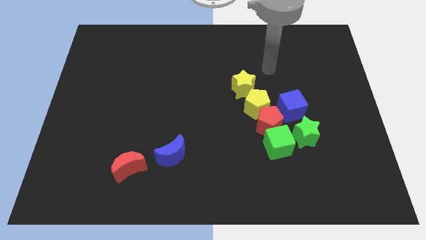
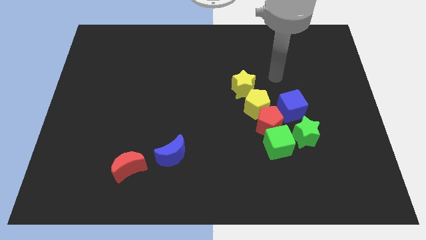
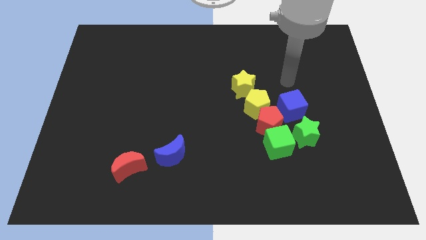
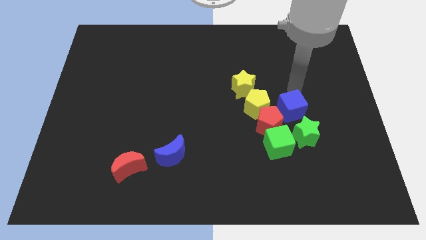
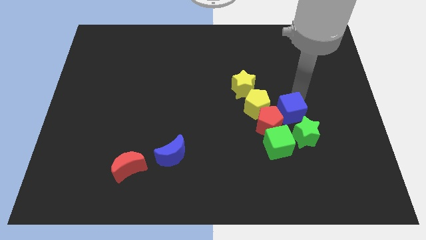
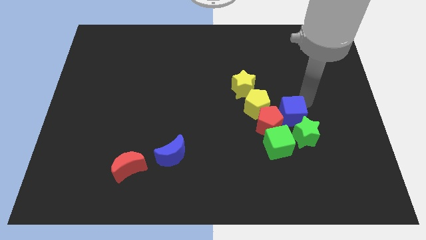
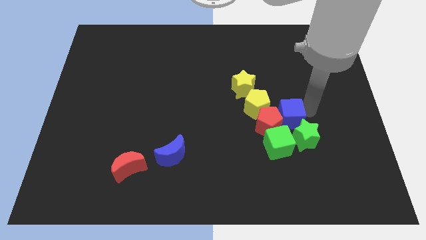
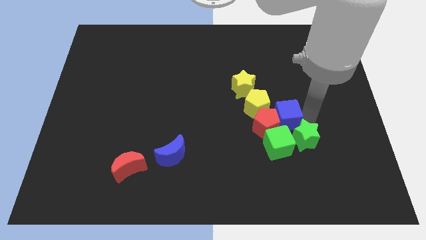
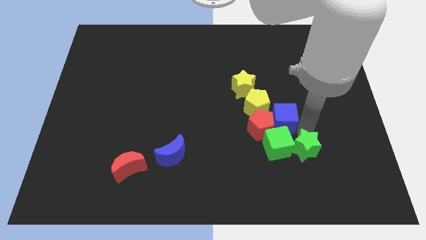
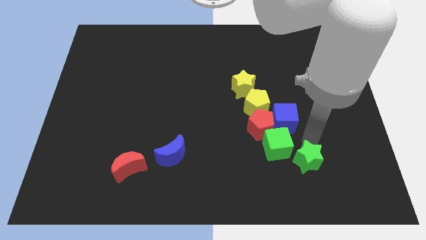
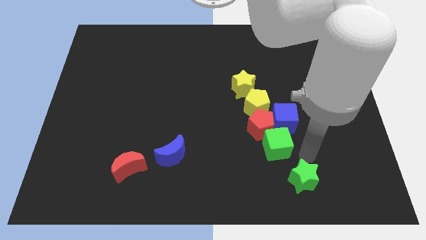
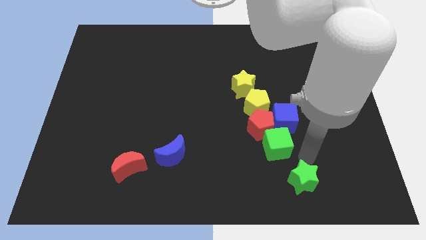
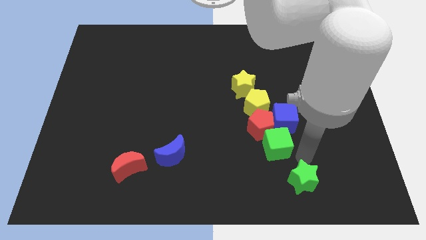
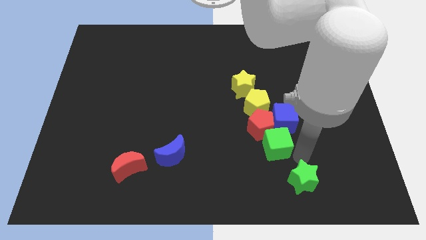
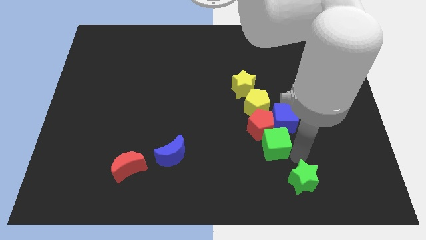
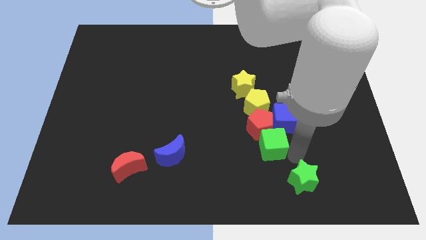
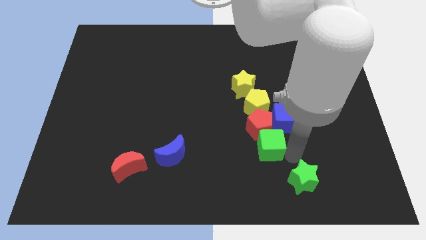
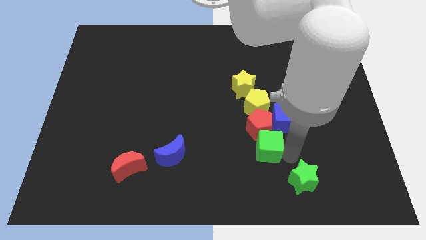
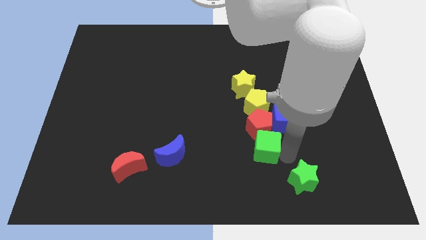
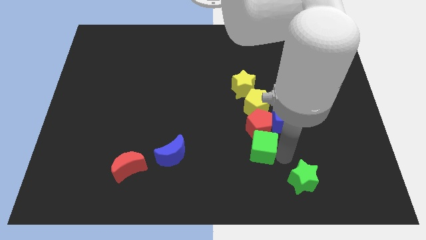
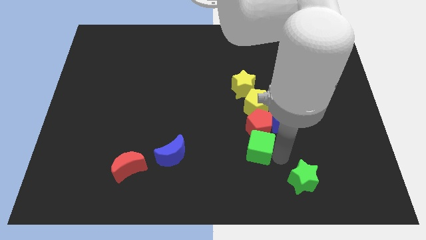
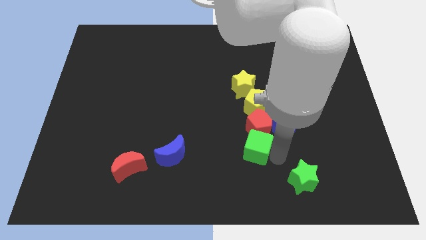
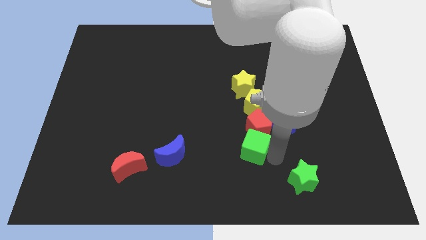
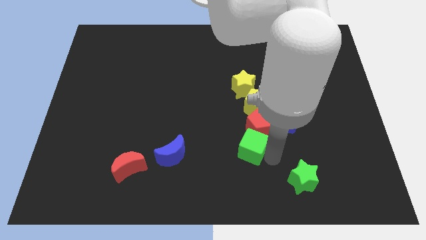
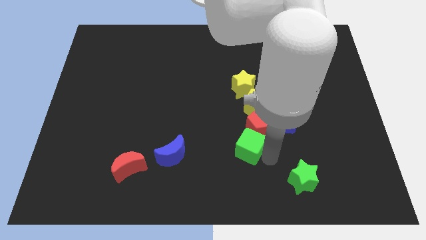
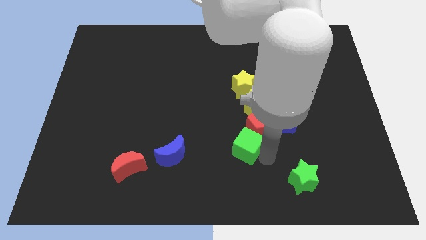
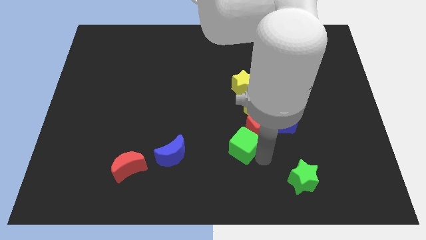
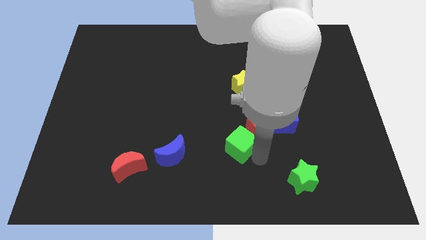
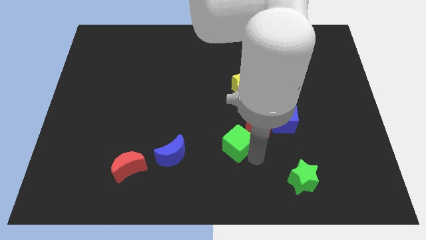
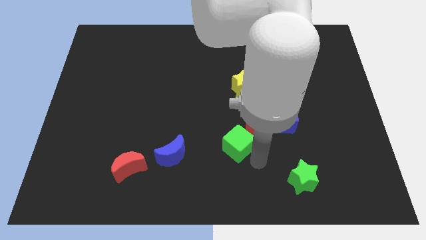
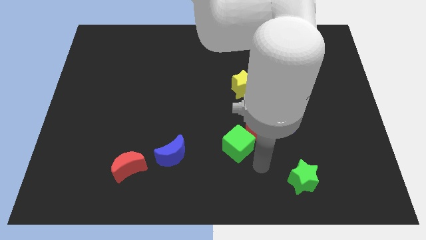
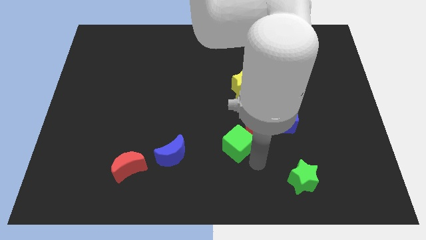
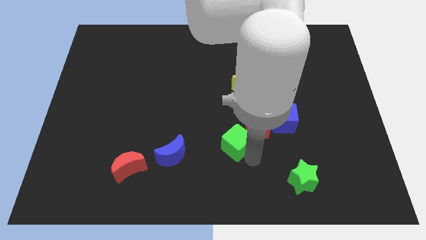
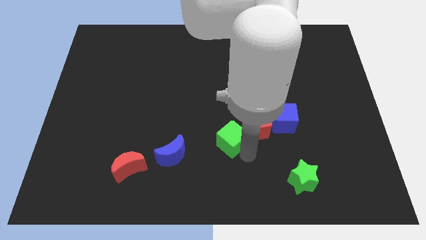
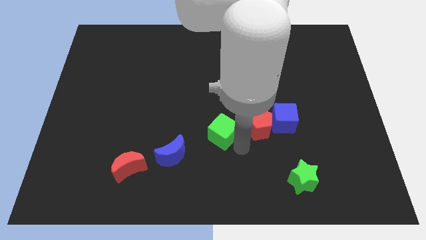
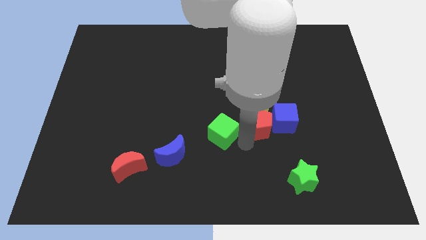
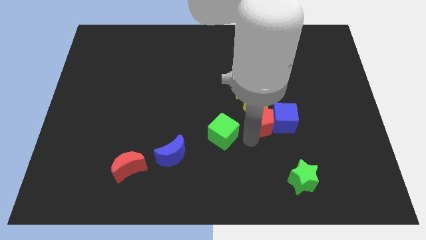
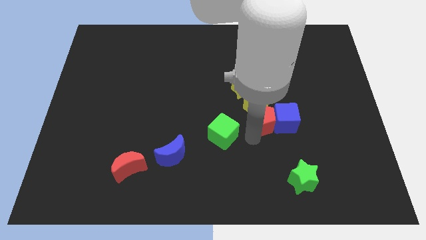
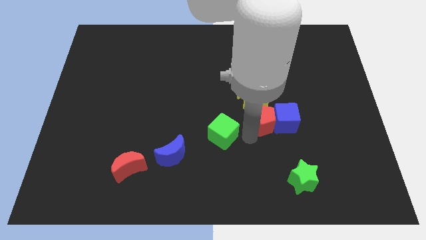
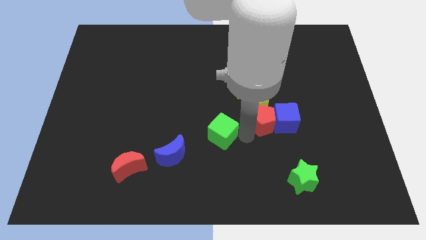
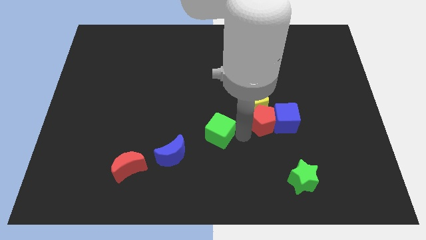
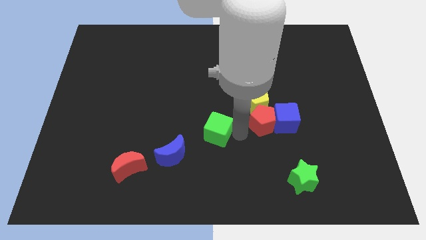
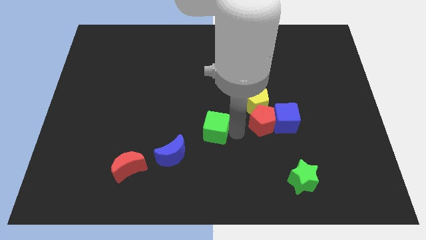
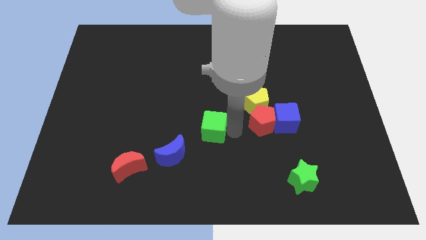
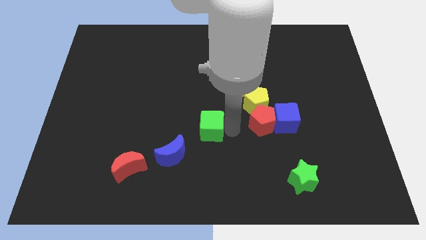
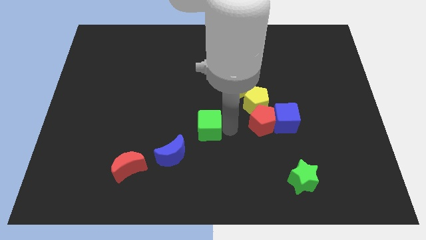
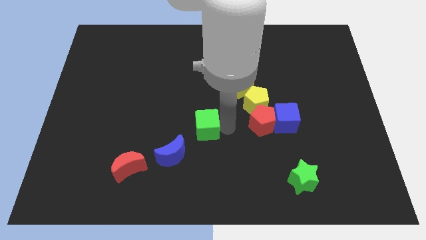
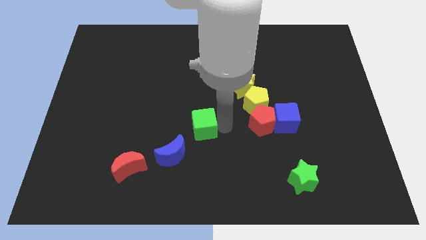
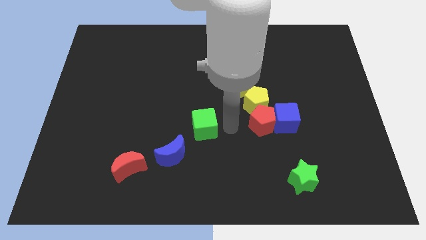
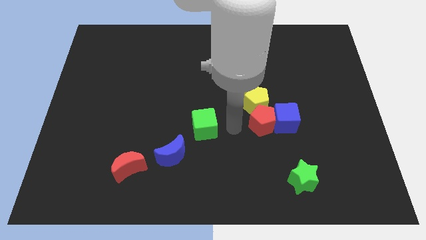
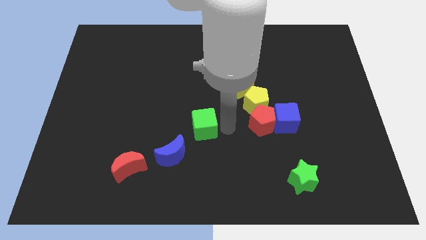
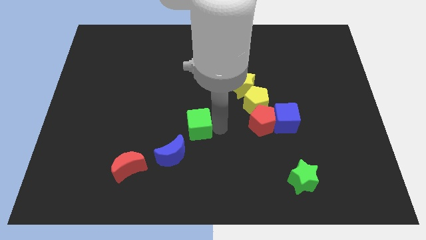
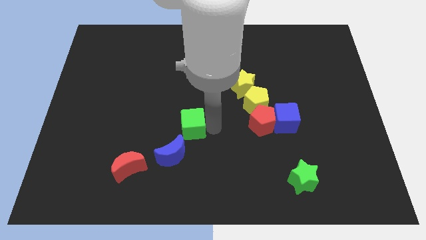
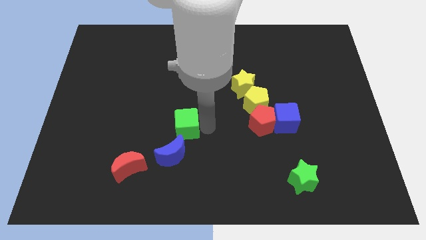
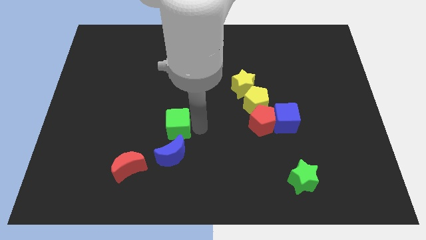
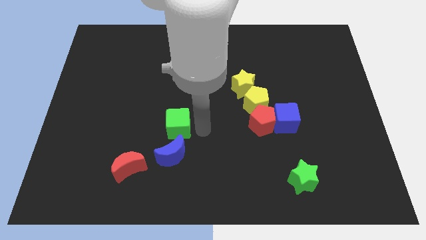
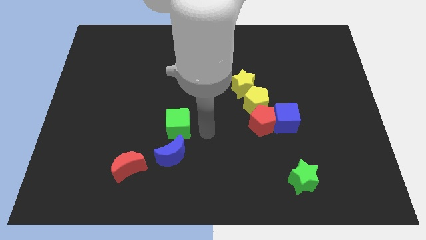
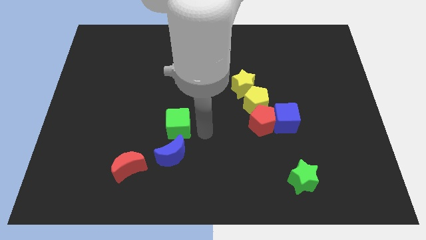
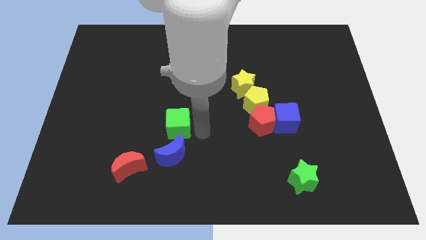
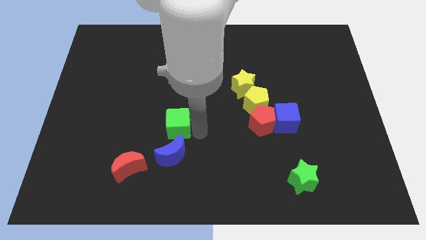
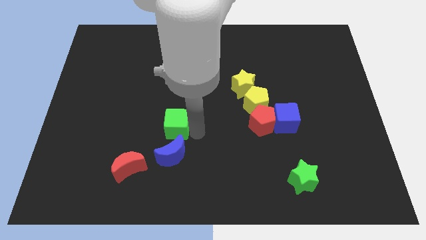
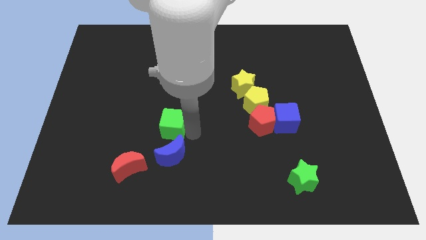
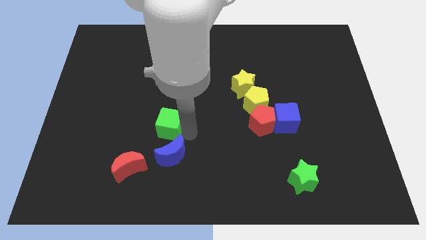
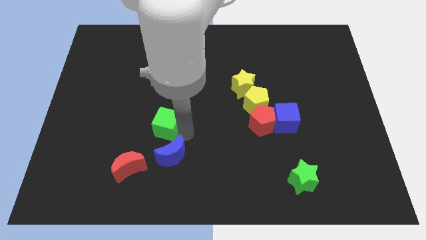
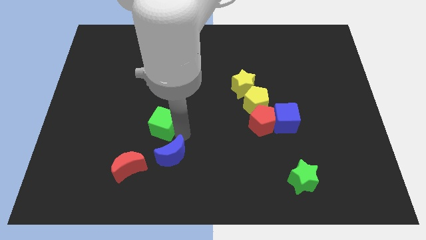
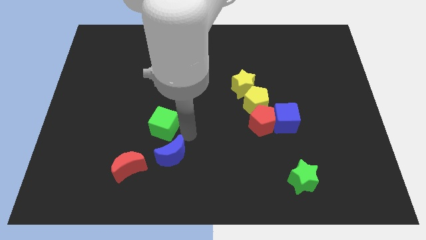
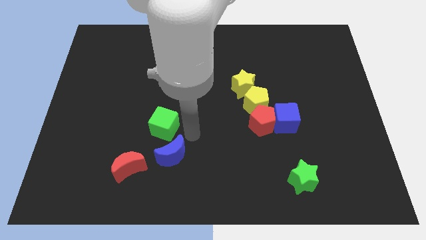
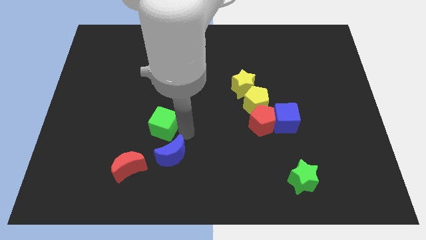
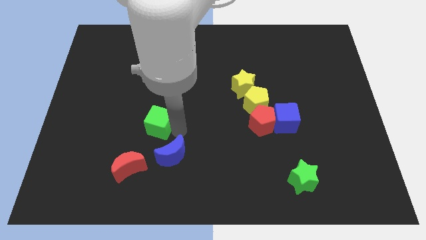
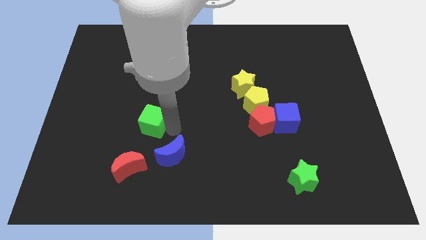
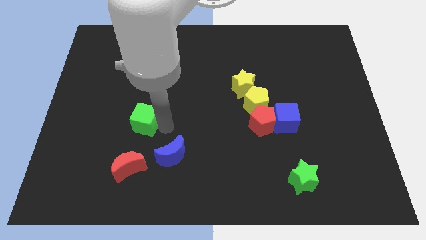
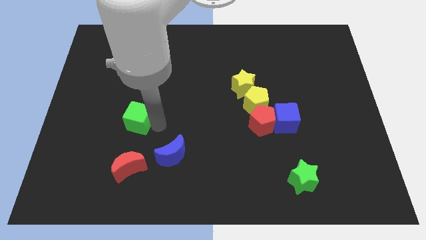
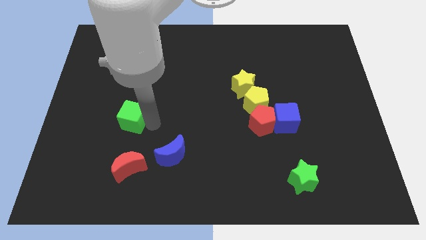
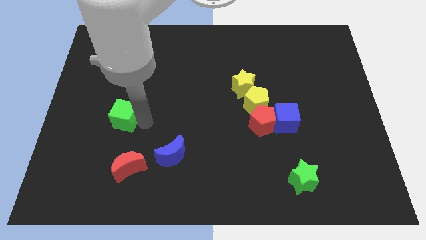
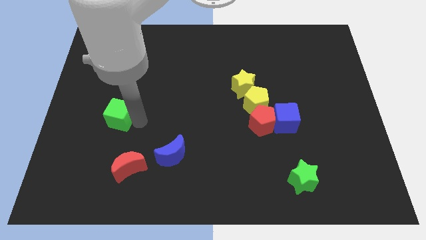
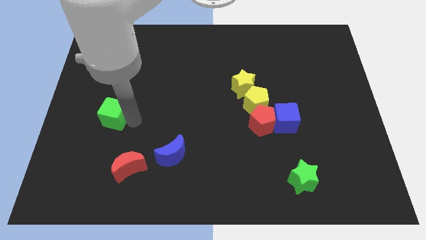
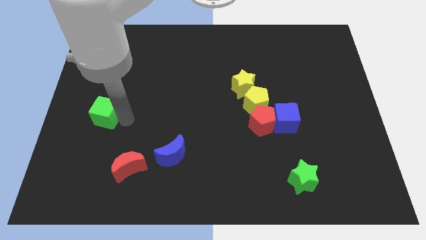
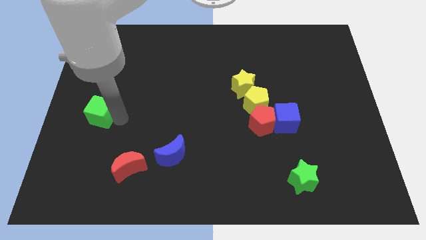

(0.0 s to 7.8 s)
push the green cube to the center left
